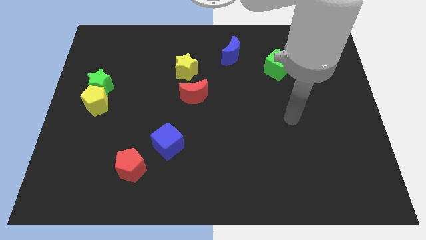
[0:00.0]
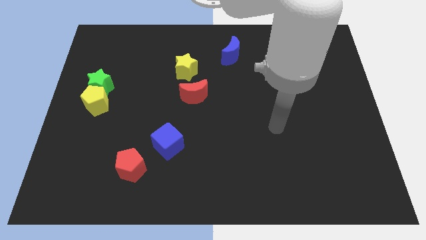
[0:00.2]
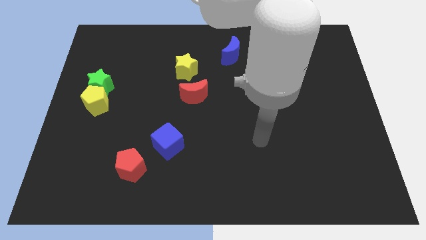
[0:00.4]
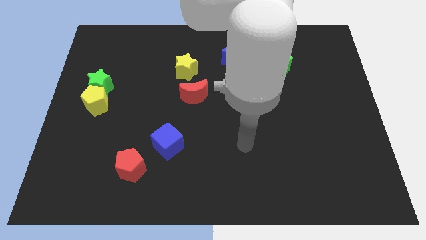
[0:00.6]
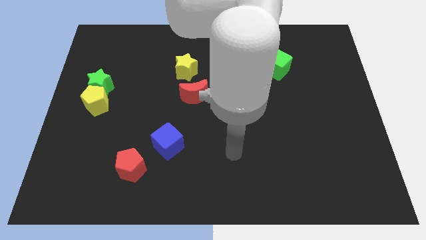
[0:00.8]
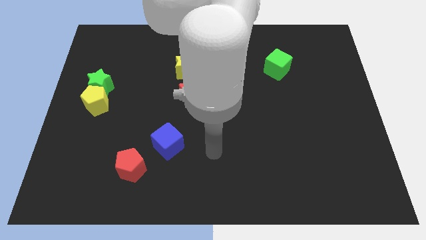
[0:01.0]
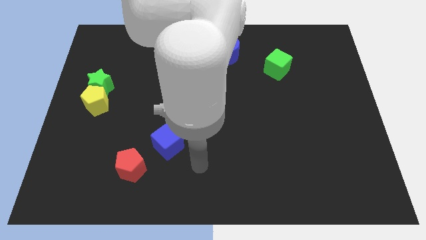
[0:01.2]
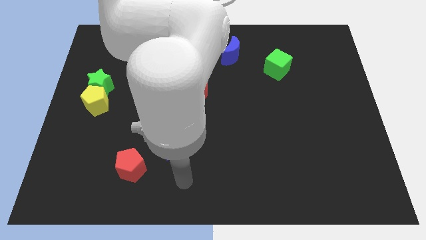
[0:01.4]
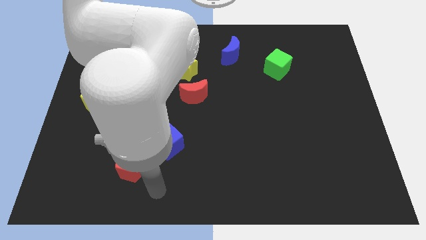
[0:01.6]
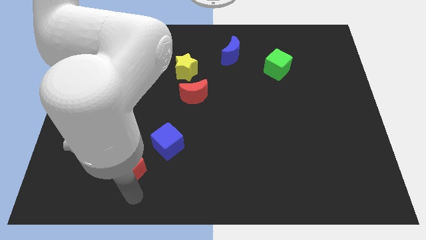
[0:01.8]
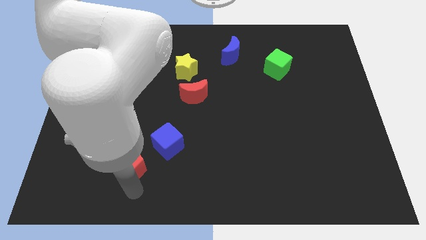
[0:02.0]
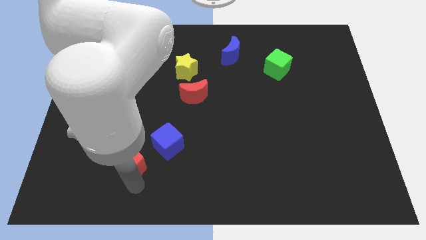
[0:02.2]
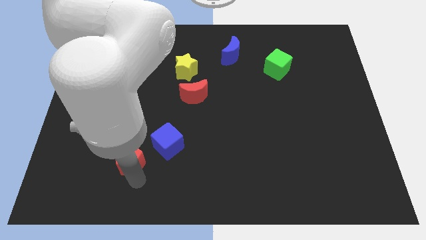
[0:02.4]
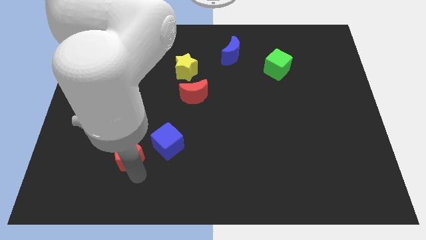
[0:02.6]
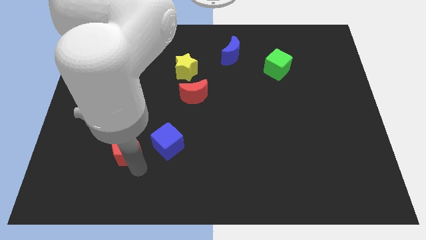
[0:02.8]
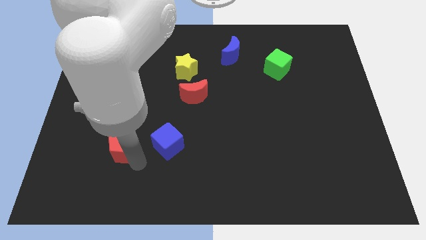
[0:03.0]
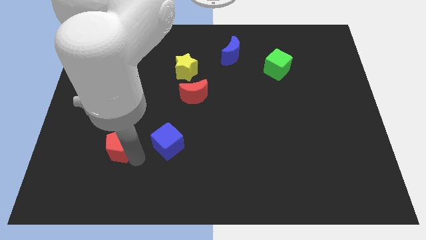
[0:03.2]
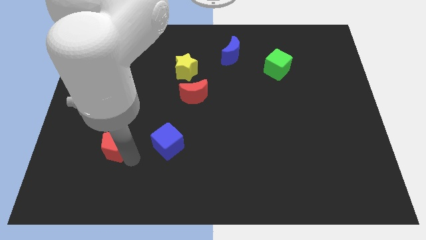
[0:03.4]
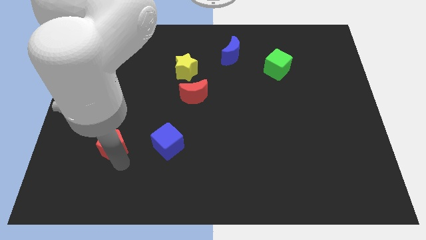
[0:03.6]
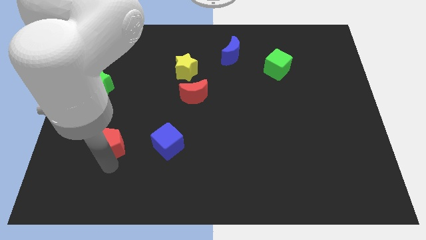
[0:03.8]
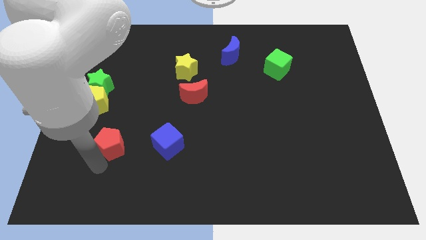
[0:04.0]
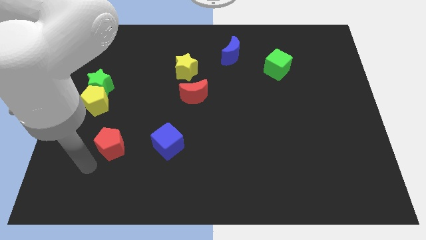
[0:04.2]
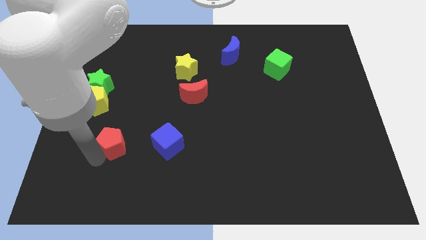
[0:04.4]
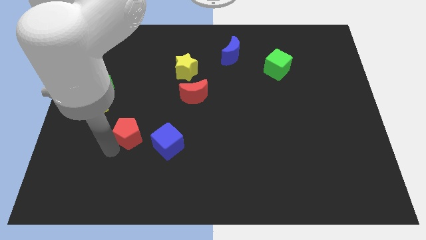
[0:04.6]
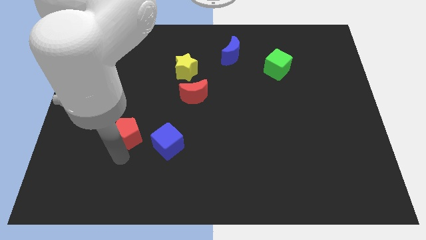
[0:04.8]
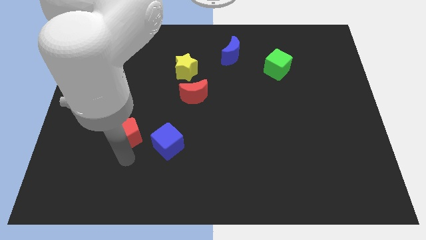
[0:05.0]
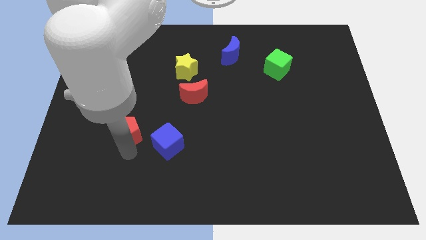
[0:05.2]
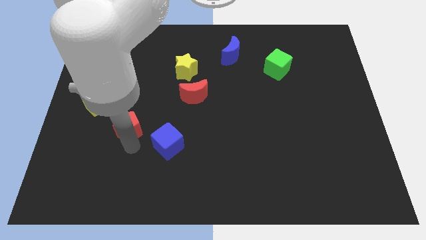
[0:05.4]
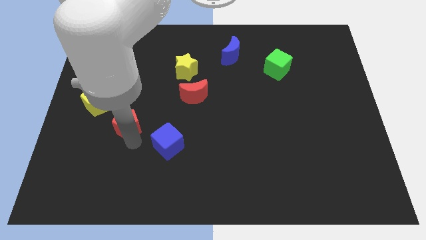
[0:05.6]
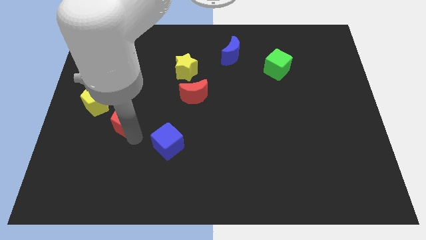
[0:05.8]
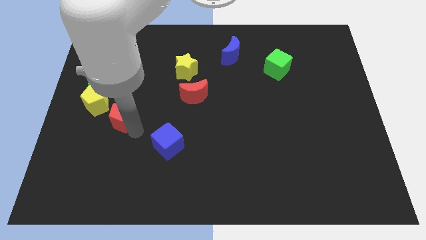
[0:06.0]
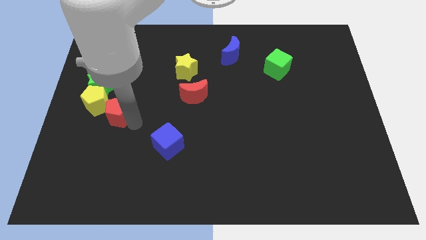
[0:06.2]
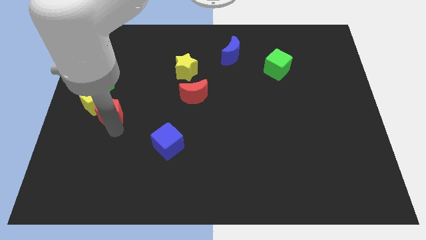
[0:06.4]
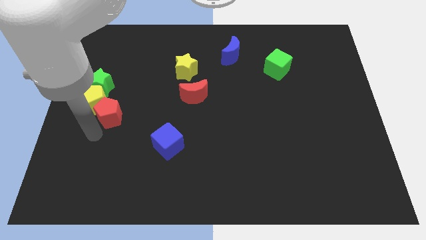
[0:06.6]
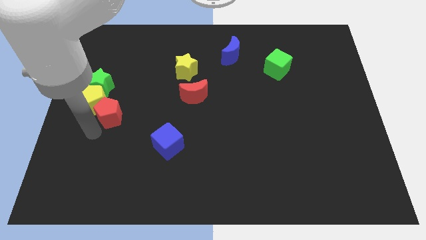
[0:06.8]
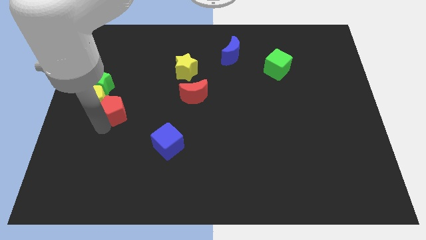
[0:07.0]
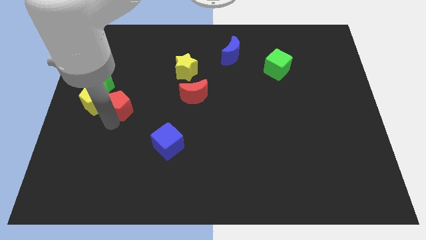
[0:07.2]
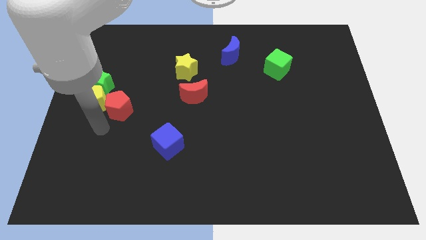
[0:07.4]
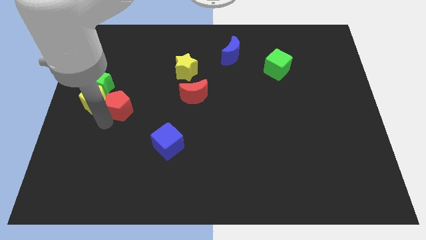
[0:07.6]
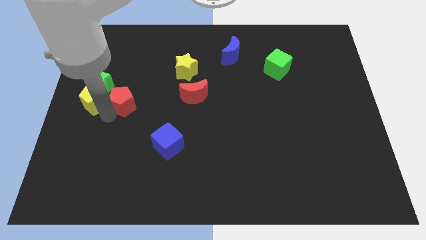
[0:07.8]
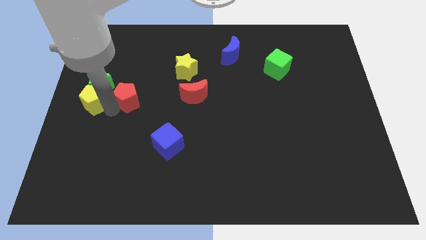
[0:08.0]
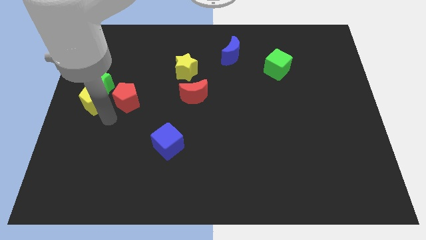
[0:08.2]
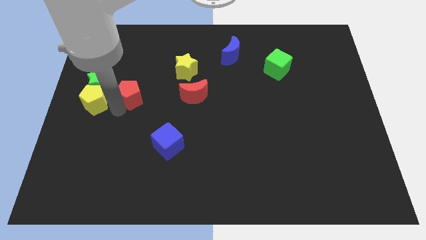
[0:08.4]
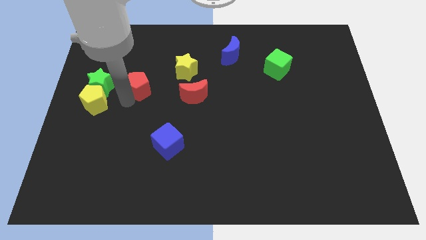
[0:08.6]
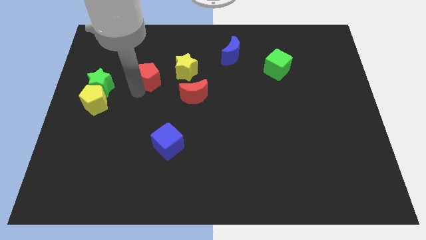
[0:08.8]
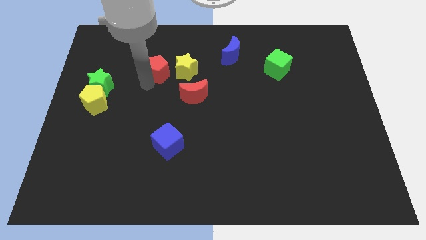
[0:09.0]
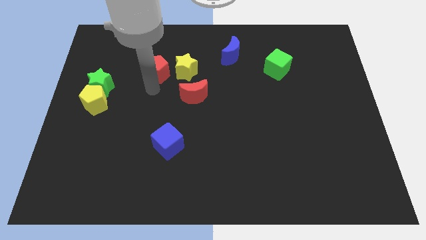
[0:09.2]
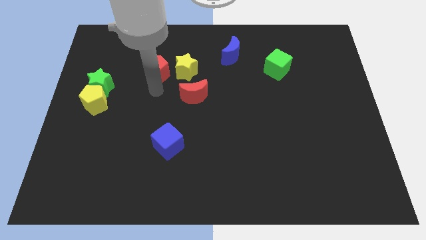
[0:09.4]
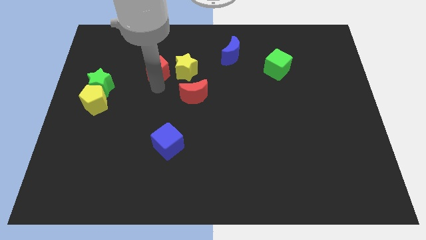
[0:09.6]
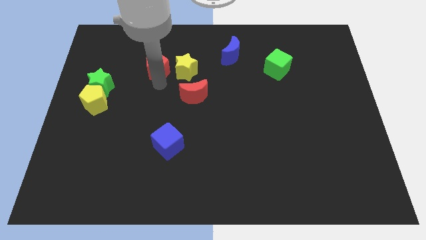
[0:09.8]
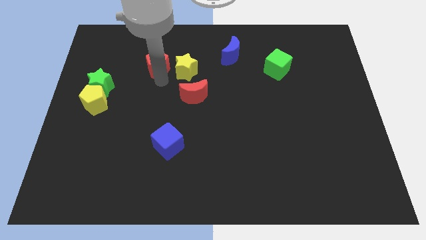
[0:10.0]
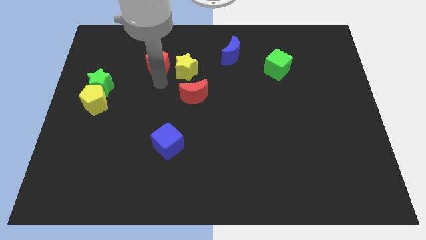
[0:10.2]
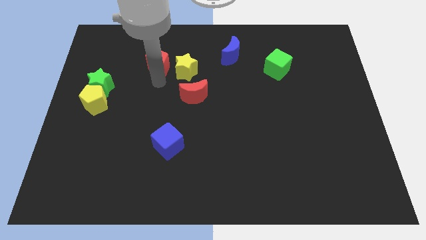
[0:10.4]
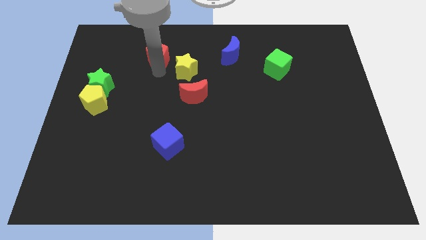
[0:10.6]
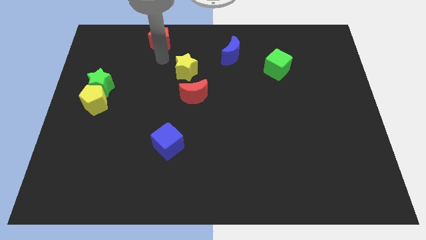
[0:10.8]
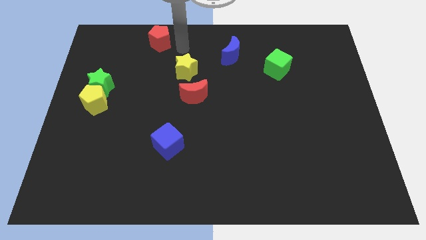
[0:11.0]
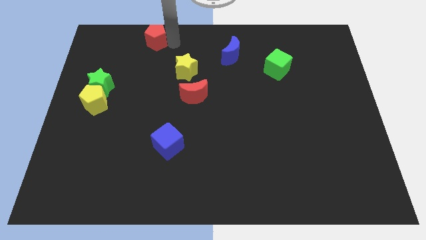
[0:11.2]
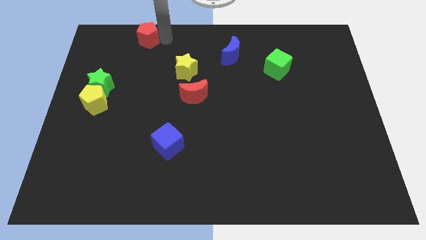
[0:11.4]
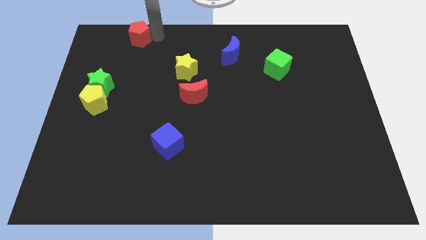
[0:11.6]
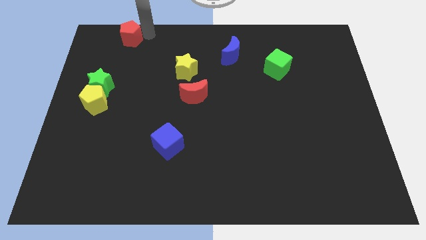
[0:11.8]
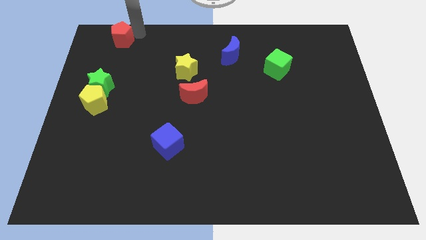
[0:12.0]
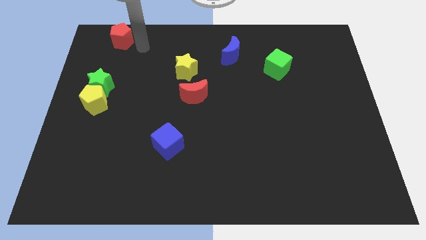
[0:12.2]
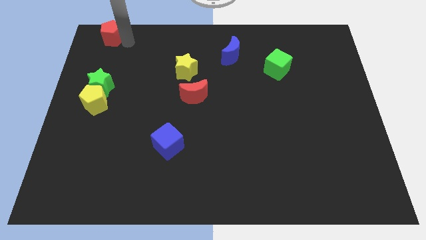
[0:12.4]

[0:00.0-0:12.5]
put the red pentagon to the upper left corner

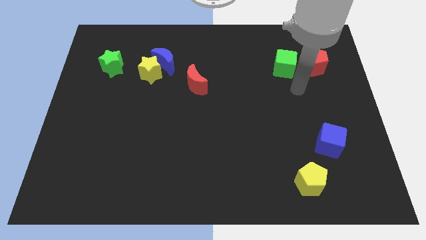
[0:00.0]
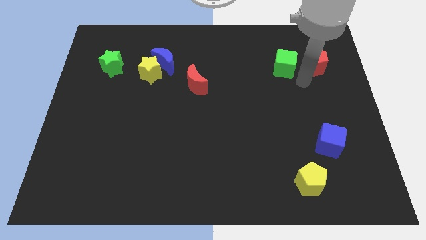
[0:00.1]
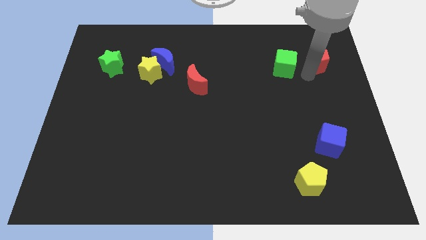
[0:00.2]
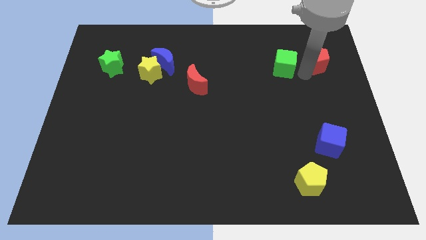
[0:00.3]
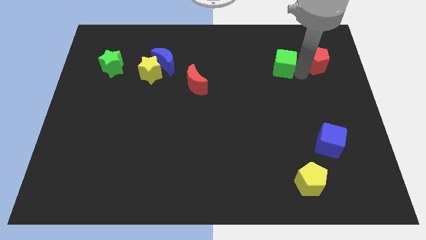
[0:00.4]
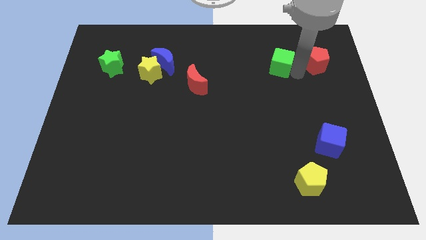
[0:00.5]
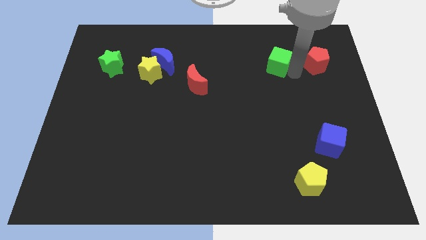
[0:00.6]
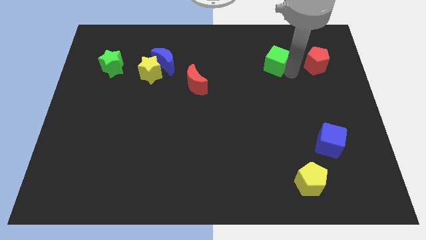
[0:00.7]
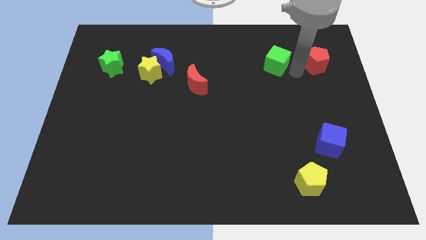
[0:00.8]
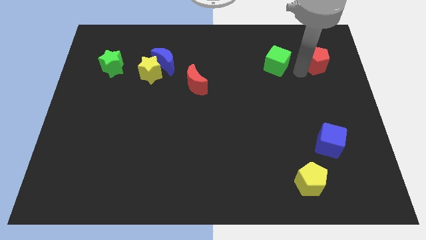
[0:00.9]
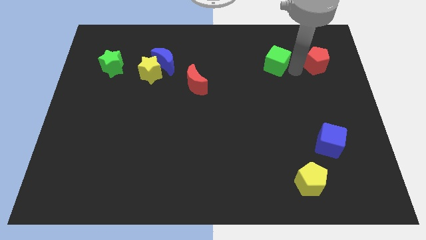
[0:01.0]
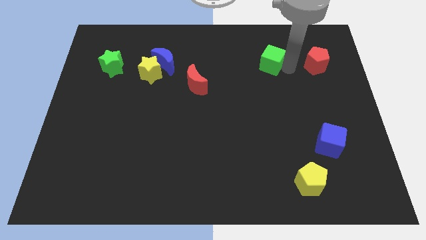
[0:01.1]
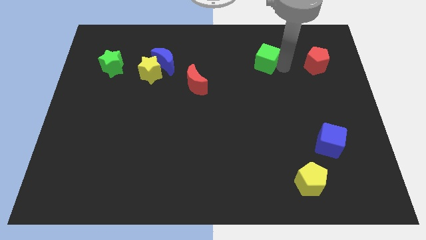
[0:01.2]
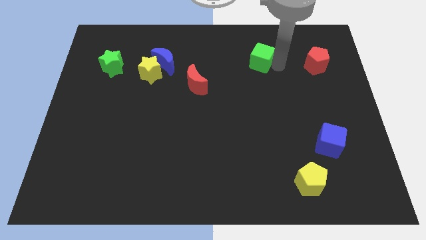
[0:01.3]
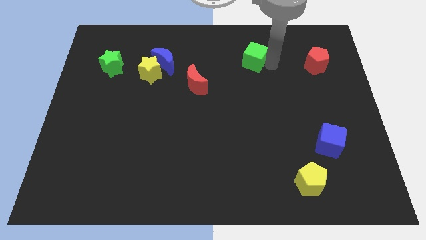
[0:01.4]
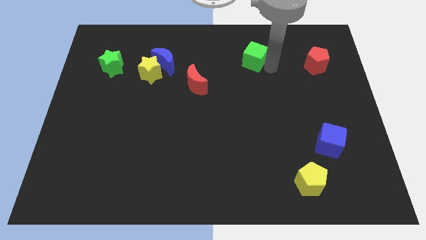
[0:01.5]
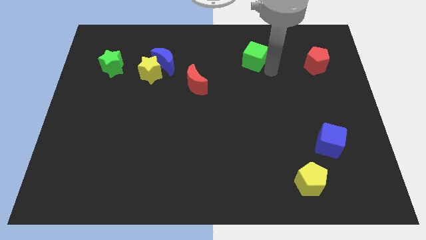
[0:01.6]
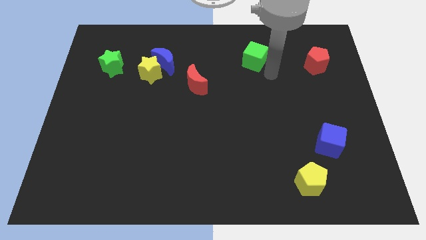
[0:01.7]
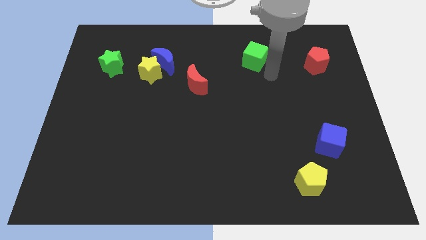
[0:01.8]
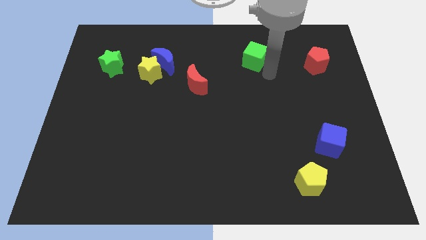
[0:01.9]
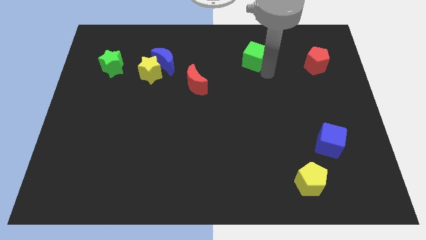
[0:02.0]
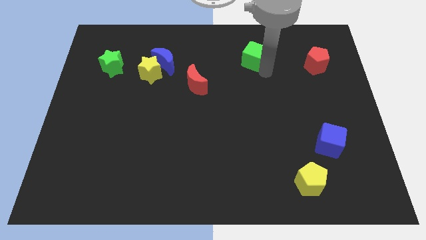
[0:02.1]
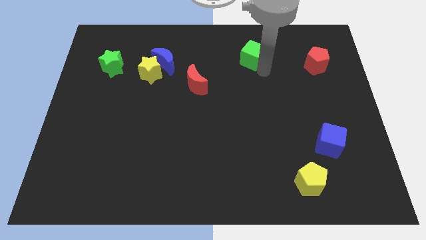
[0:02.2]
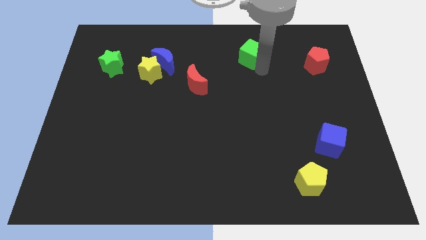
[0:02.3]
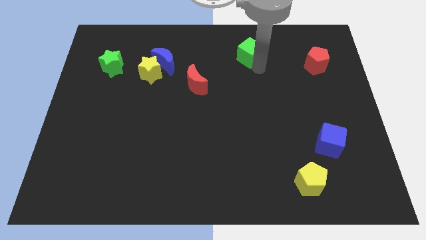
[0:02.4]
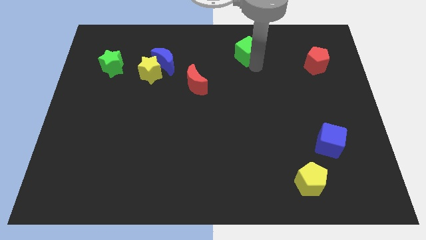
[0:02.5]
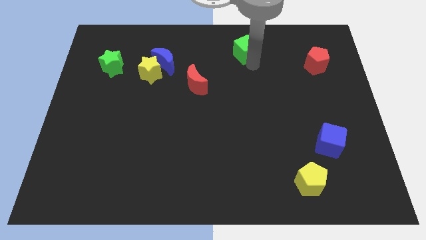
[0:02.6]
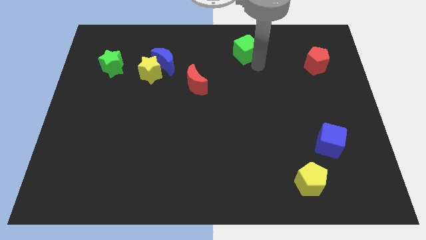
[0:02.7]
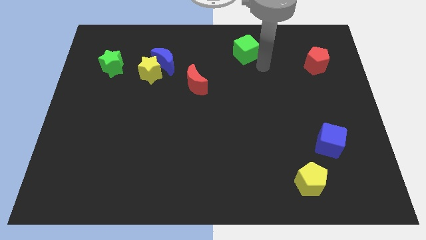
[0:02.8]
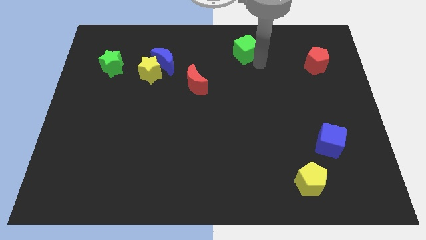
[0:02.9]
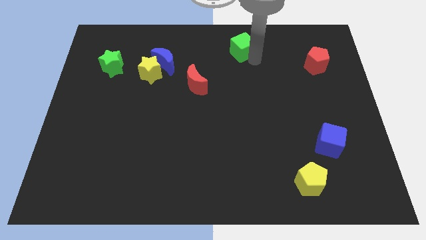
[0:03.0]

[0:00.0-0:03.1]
push the green cube to the towards your base
